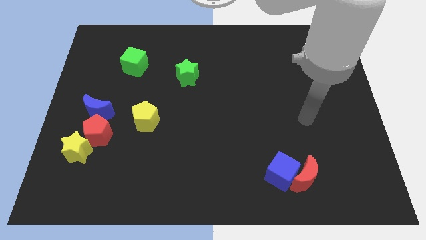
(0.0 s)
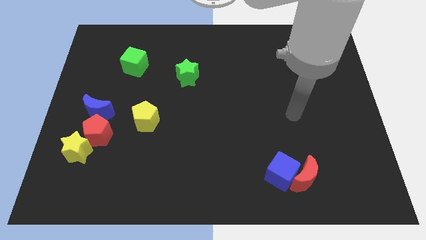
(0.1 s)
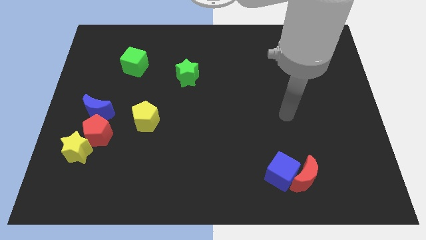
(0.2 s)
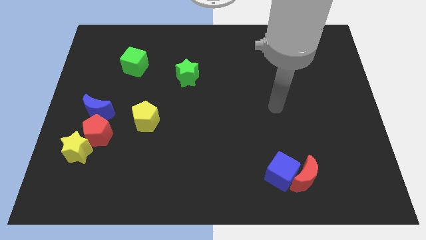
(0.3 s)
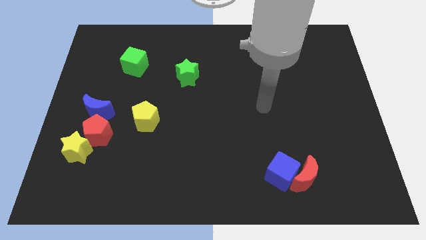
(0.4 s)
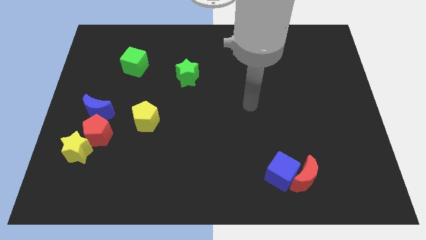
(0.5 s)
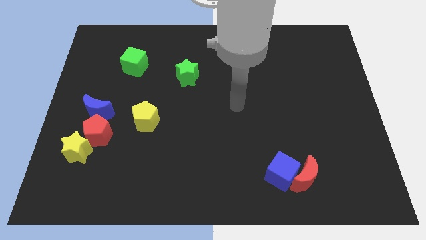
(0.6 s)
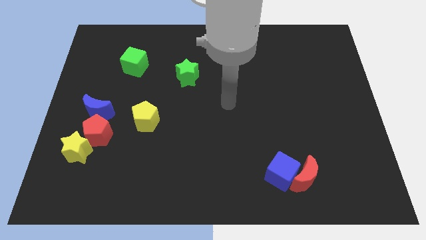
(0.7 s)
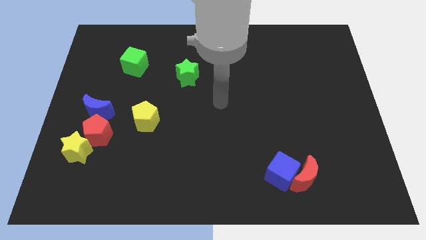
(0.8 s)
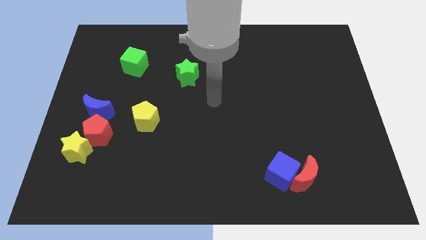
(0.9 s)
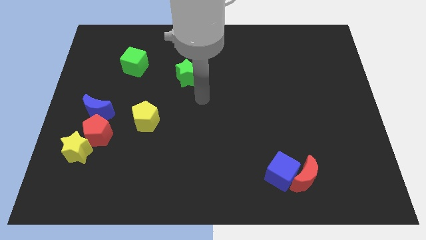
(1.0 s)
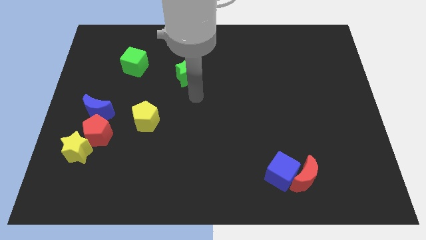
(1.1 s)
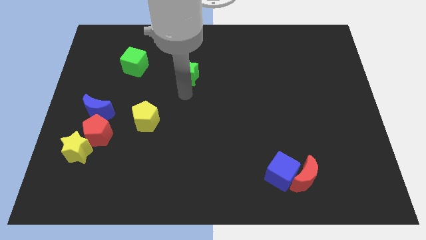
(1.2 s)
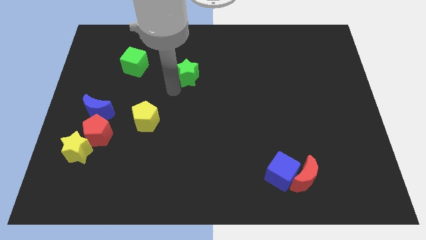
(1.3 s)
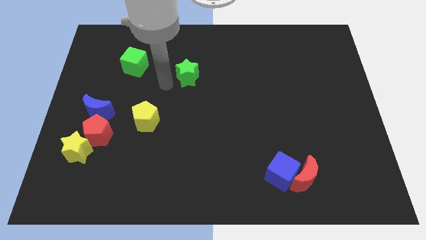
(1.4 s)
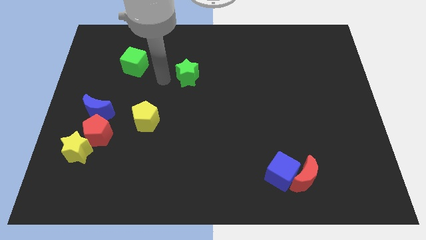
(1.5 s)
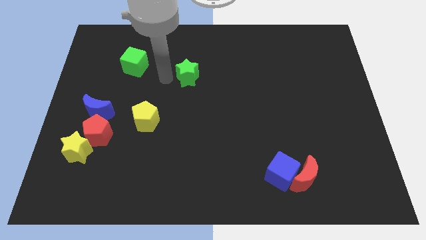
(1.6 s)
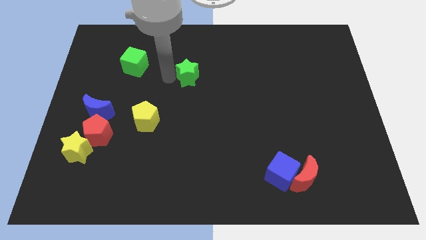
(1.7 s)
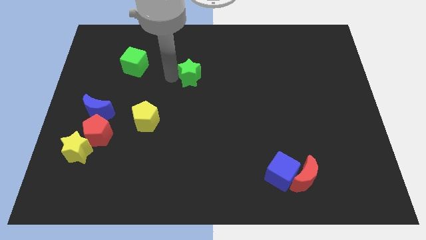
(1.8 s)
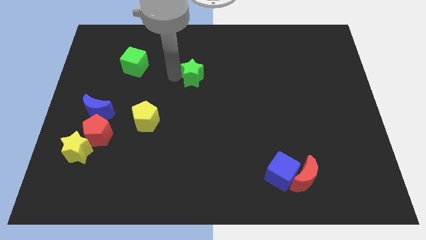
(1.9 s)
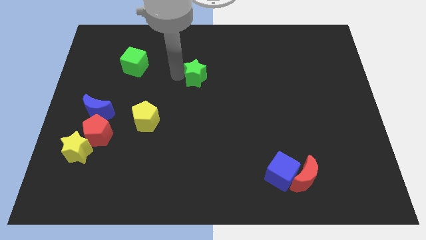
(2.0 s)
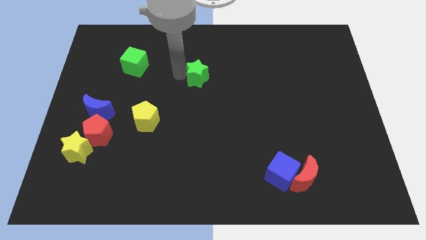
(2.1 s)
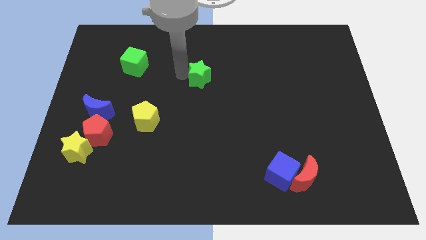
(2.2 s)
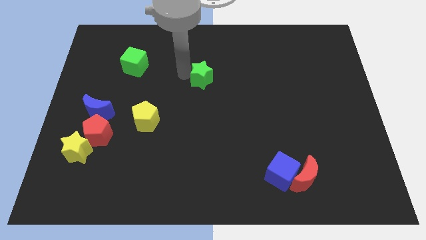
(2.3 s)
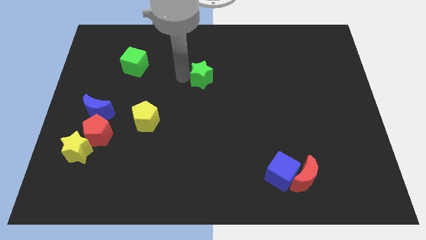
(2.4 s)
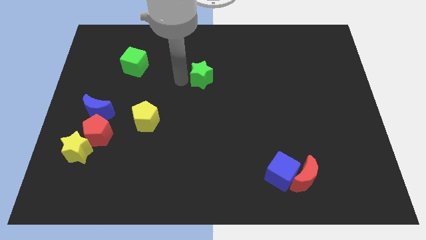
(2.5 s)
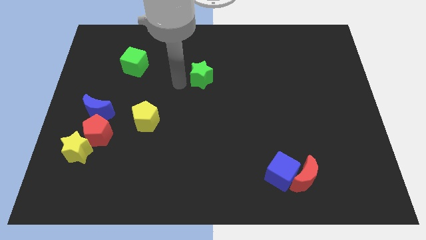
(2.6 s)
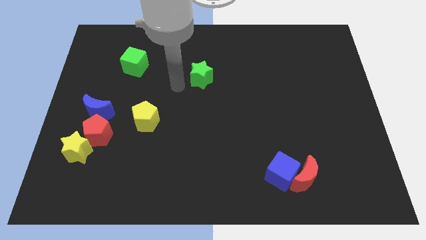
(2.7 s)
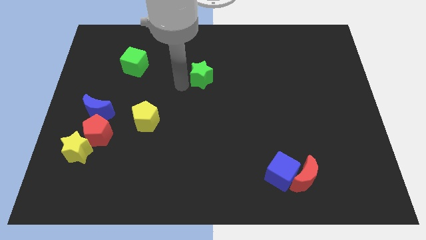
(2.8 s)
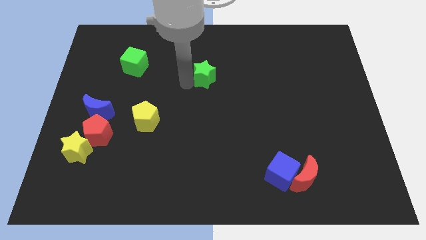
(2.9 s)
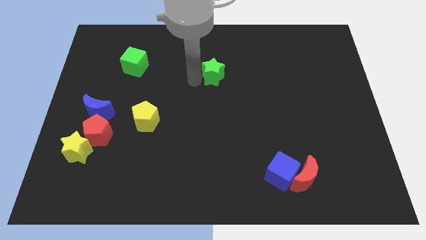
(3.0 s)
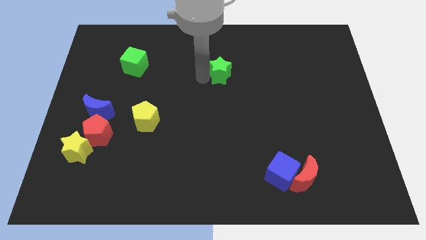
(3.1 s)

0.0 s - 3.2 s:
push the green star slightly right

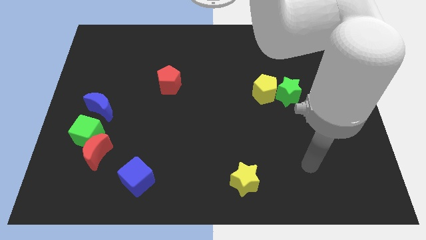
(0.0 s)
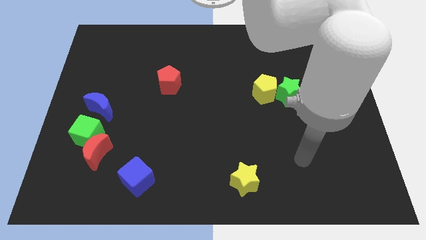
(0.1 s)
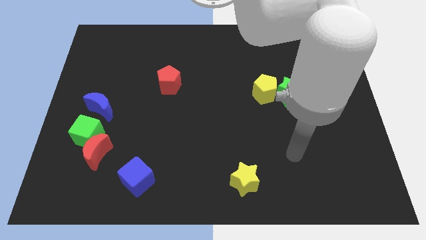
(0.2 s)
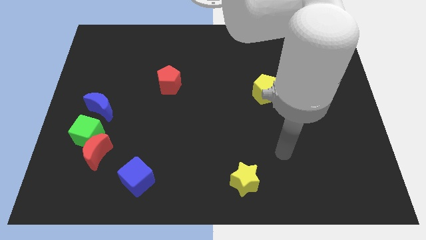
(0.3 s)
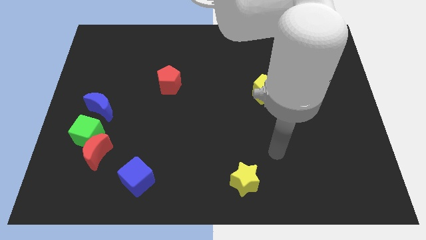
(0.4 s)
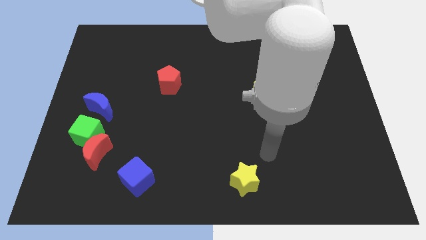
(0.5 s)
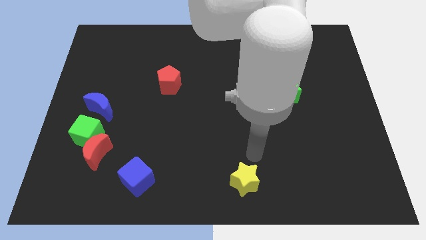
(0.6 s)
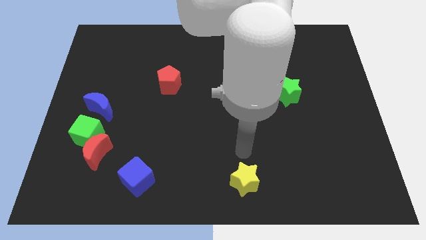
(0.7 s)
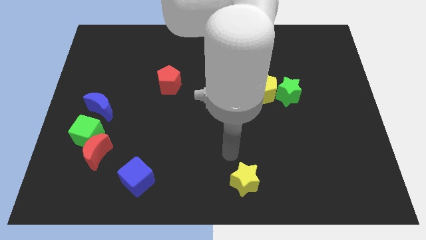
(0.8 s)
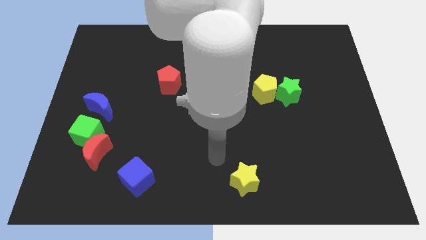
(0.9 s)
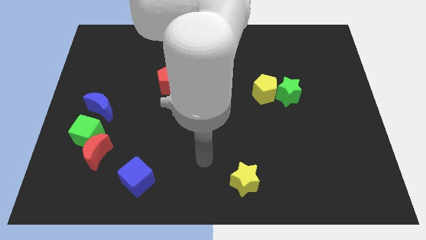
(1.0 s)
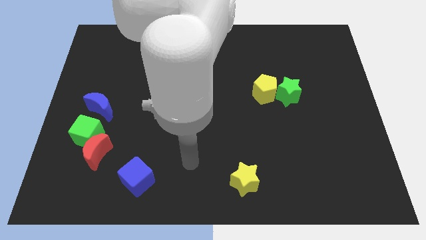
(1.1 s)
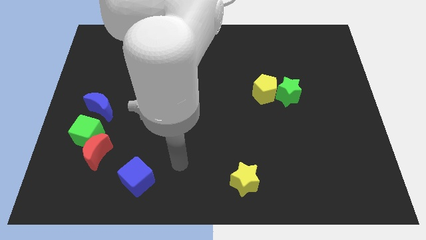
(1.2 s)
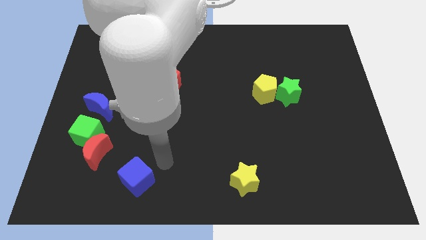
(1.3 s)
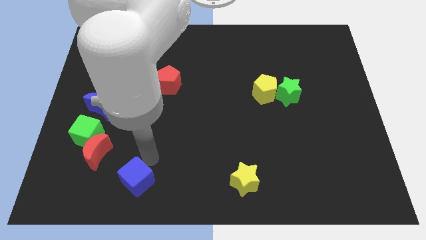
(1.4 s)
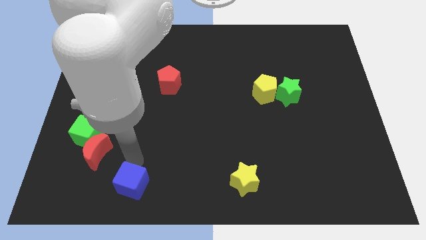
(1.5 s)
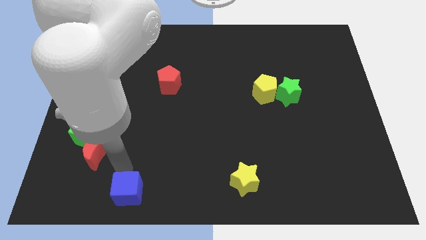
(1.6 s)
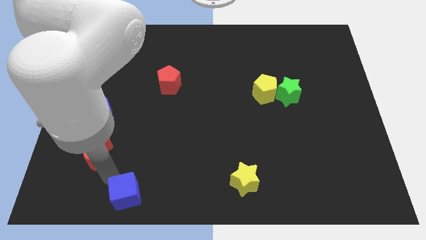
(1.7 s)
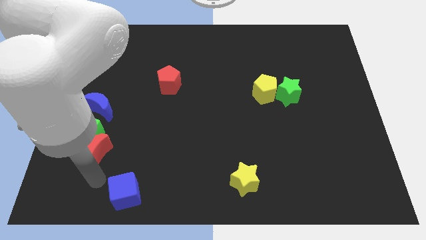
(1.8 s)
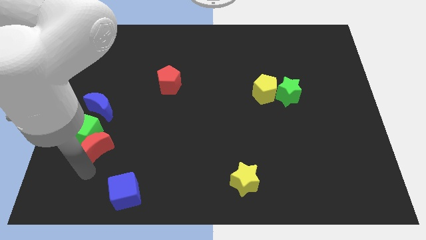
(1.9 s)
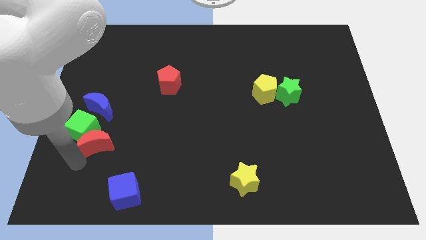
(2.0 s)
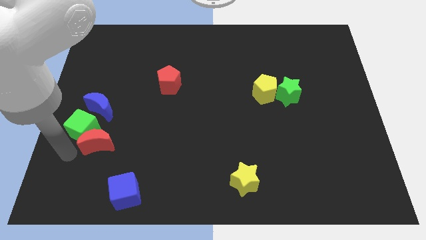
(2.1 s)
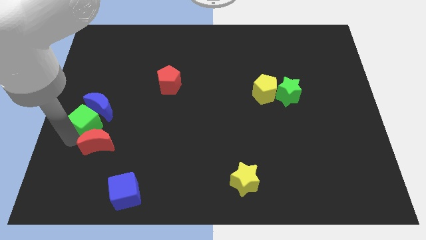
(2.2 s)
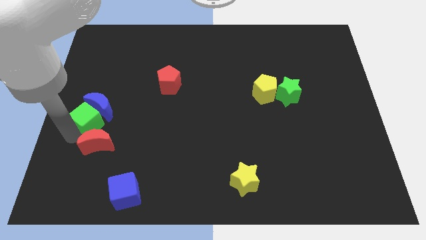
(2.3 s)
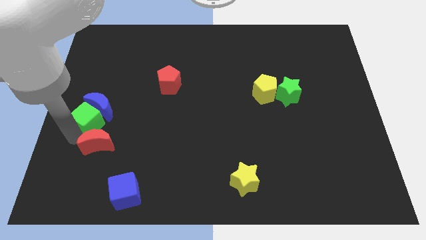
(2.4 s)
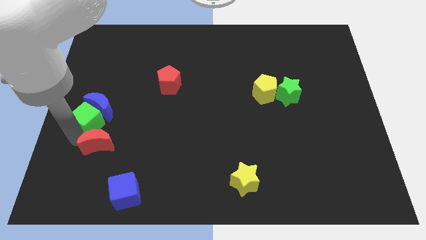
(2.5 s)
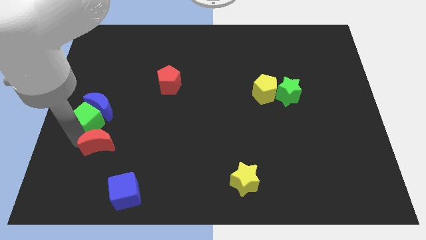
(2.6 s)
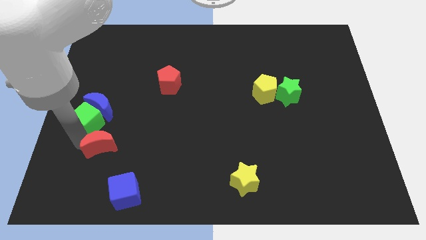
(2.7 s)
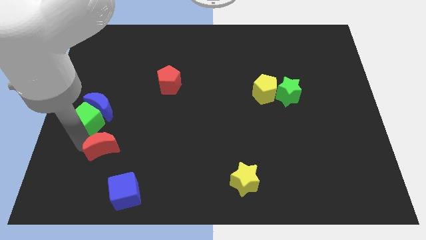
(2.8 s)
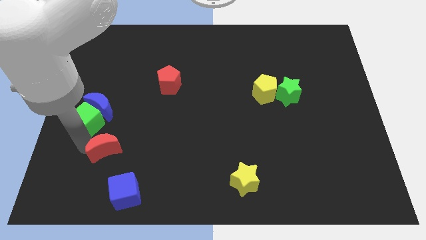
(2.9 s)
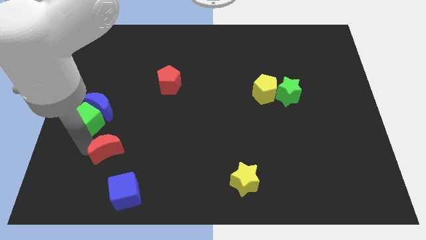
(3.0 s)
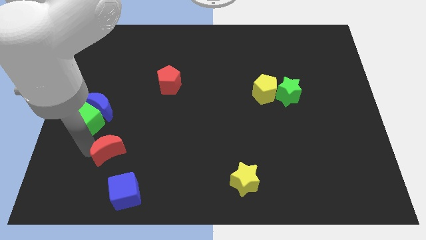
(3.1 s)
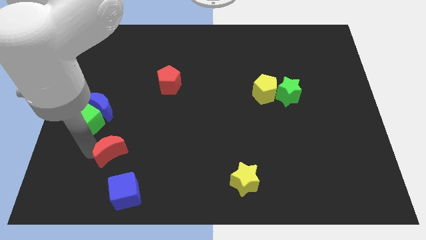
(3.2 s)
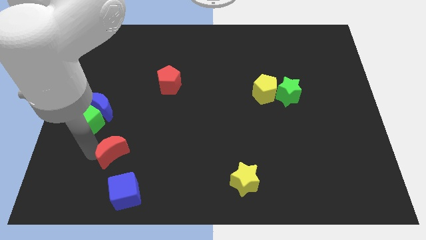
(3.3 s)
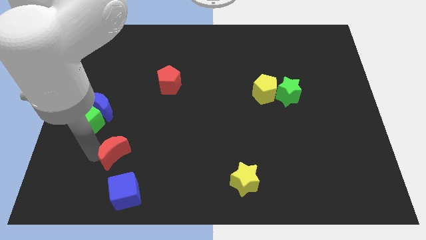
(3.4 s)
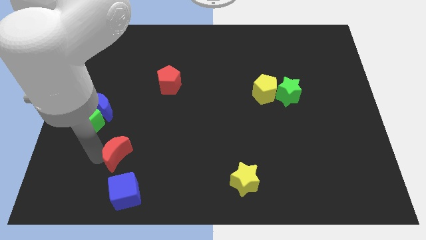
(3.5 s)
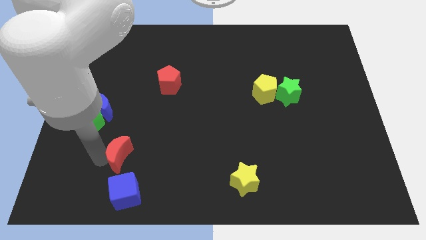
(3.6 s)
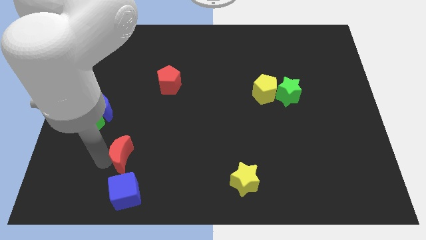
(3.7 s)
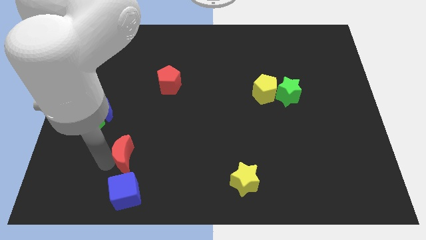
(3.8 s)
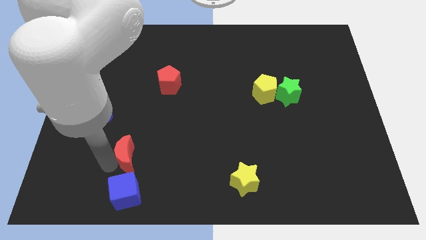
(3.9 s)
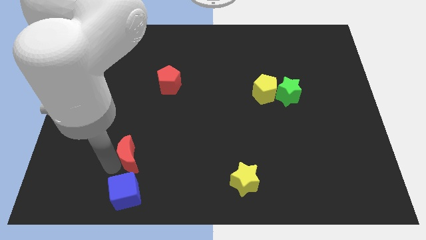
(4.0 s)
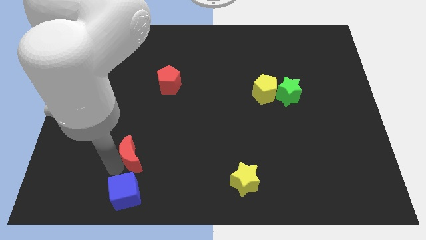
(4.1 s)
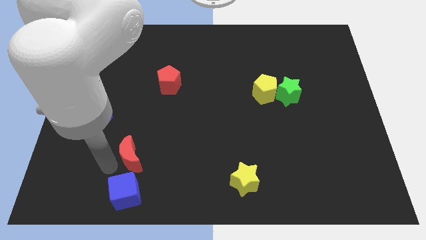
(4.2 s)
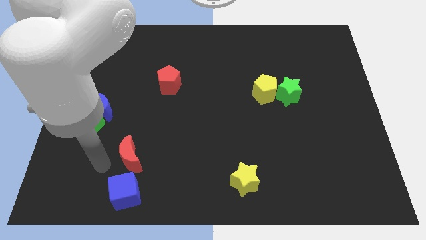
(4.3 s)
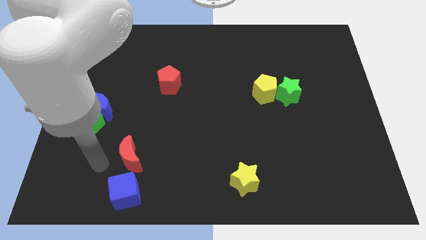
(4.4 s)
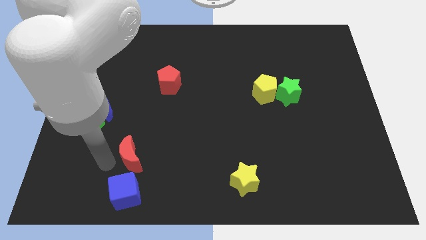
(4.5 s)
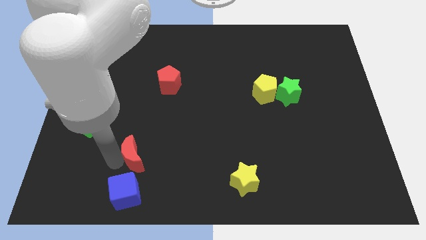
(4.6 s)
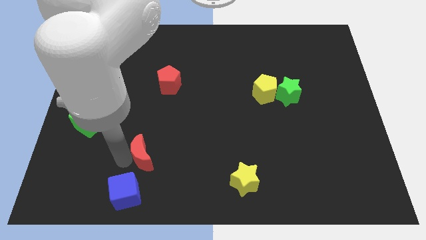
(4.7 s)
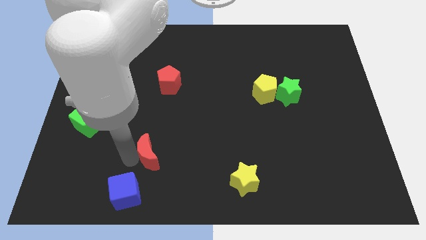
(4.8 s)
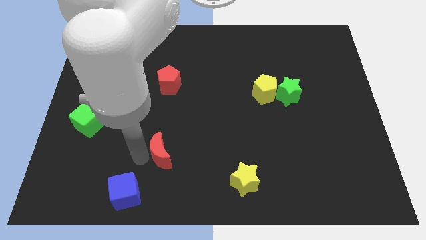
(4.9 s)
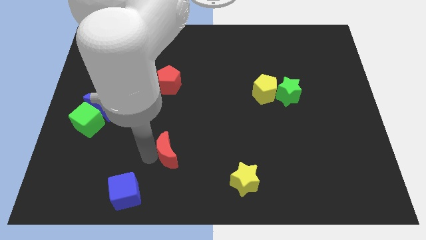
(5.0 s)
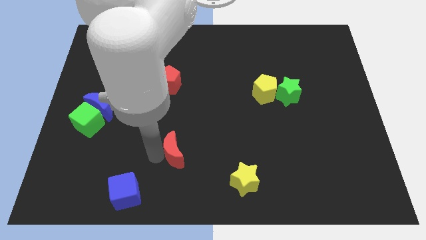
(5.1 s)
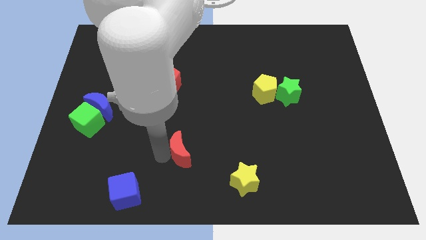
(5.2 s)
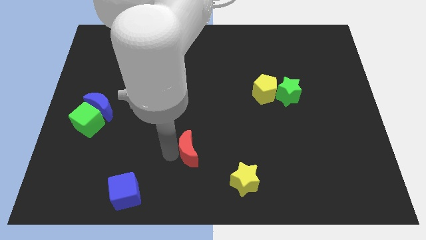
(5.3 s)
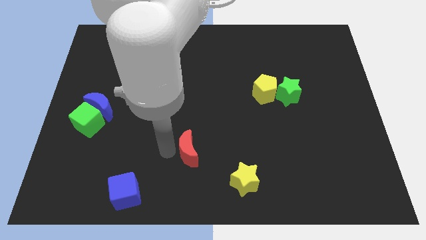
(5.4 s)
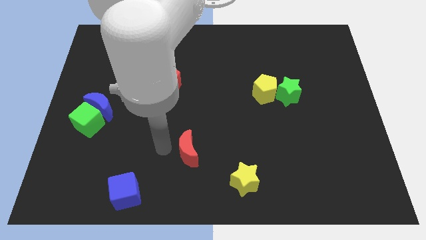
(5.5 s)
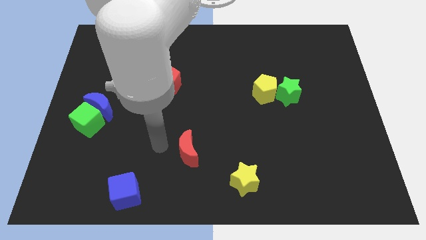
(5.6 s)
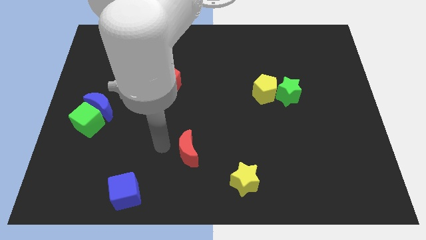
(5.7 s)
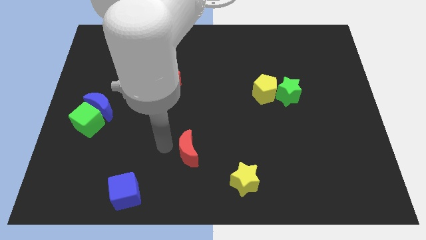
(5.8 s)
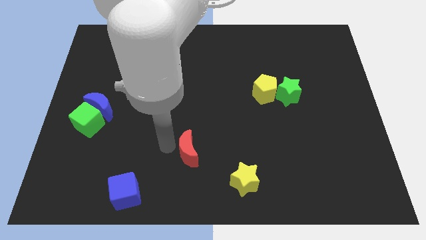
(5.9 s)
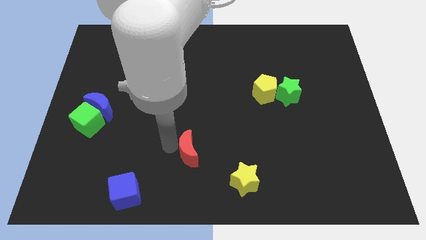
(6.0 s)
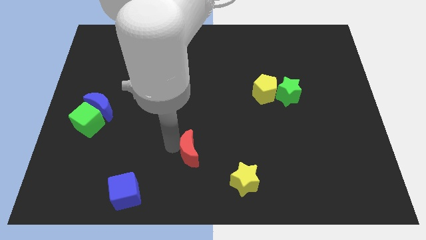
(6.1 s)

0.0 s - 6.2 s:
slide the red moon to the right
